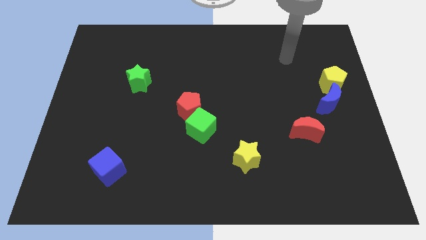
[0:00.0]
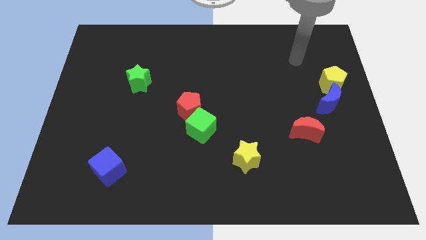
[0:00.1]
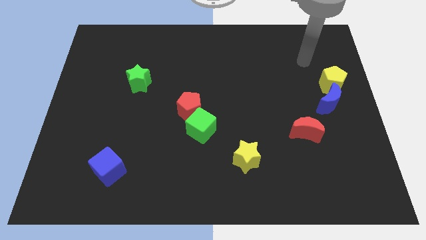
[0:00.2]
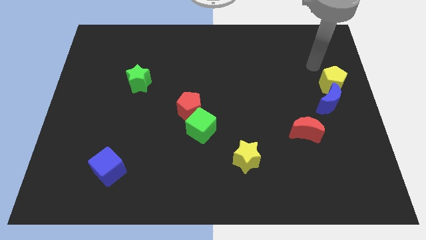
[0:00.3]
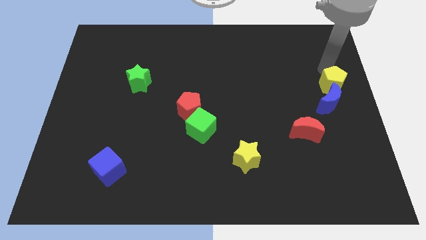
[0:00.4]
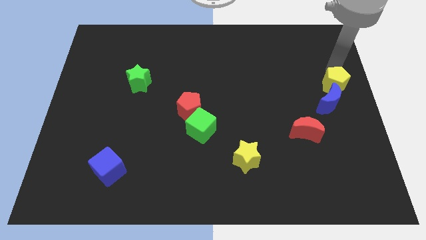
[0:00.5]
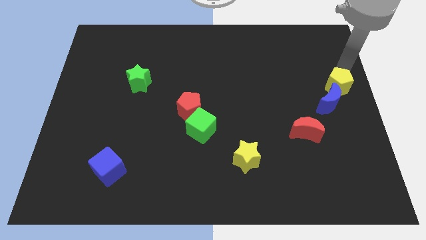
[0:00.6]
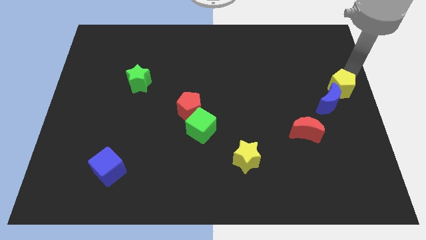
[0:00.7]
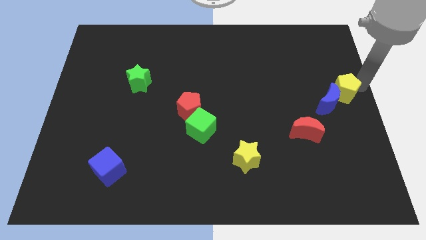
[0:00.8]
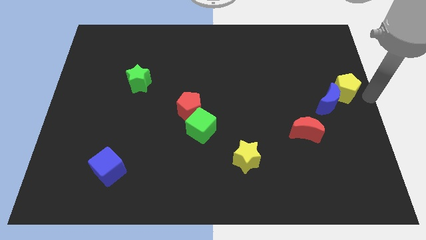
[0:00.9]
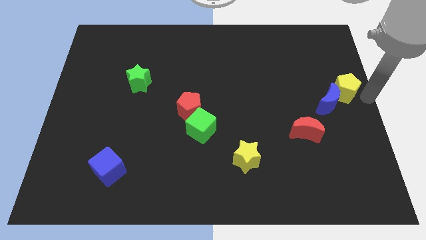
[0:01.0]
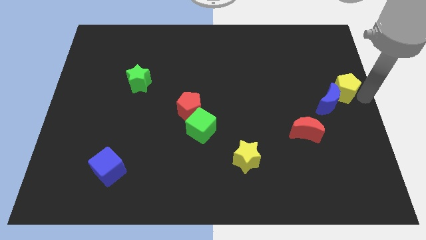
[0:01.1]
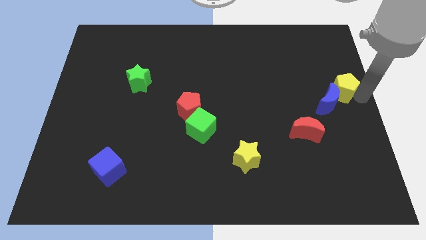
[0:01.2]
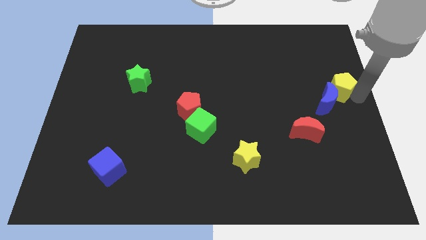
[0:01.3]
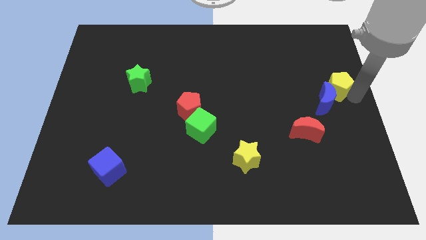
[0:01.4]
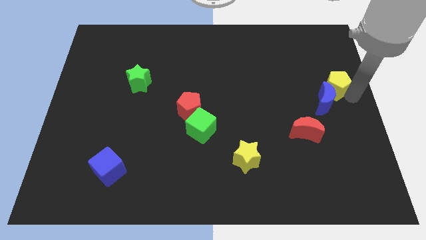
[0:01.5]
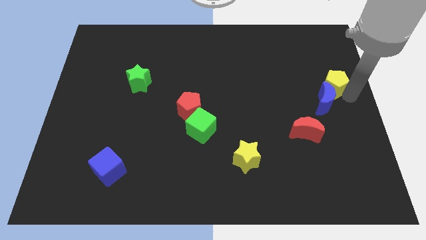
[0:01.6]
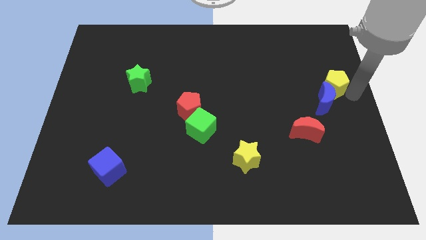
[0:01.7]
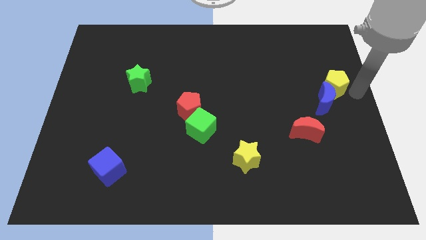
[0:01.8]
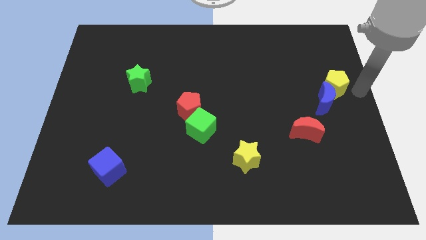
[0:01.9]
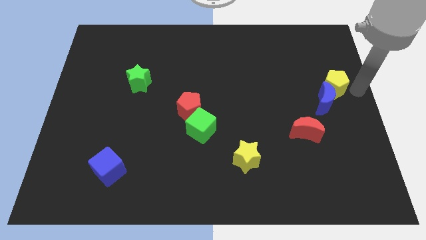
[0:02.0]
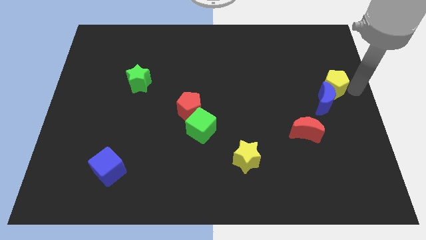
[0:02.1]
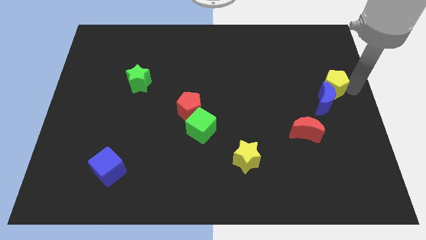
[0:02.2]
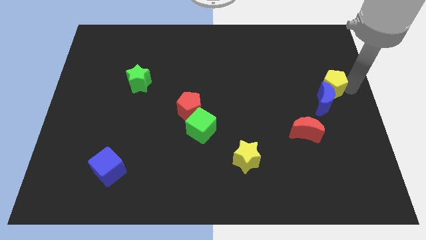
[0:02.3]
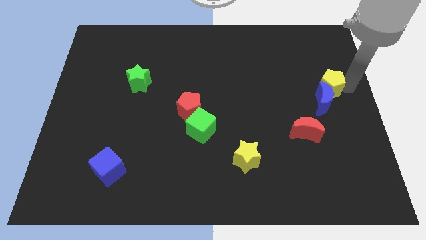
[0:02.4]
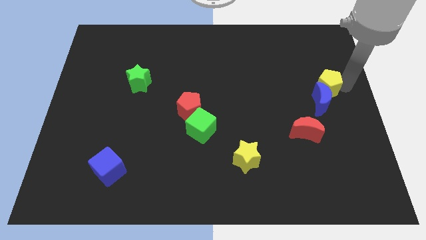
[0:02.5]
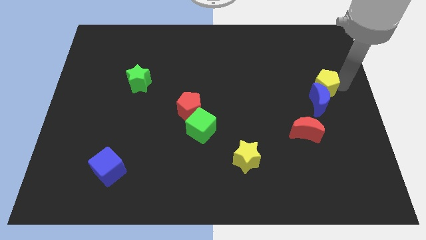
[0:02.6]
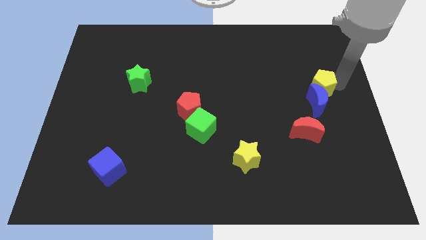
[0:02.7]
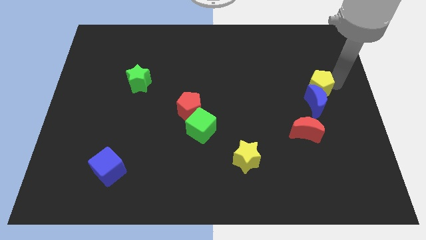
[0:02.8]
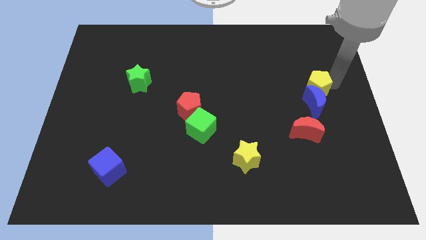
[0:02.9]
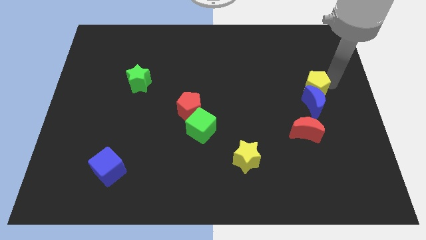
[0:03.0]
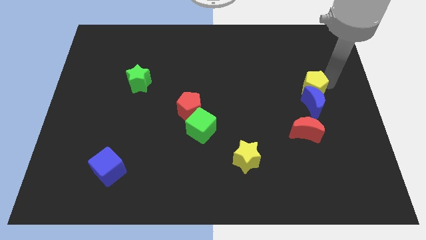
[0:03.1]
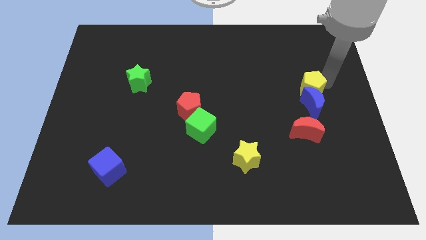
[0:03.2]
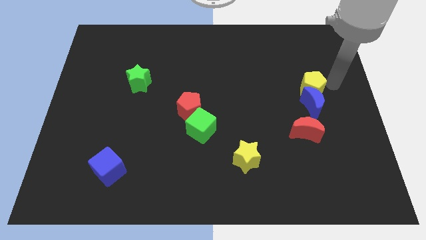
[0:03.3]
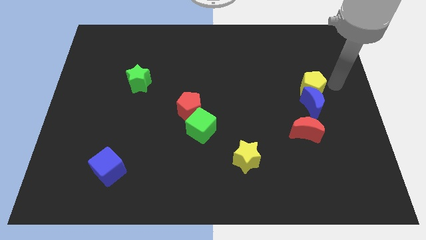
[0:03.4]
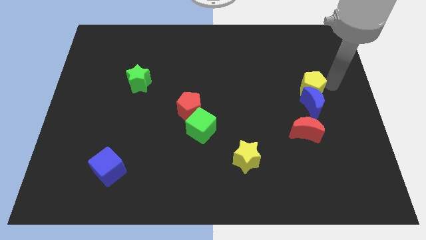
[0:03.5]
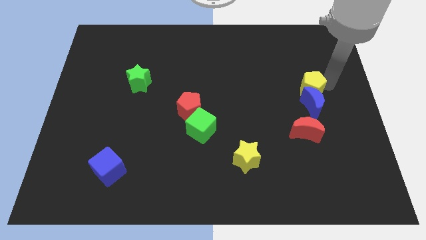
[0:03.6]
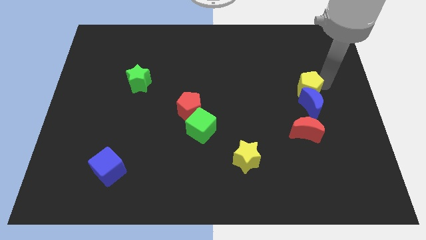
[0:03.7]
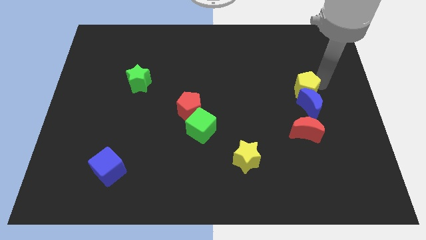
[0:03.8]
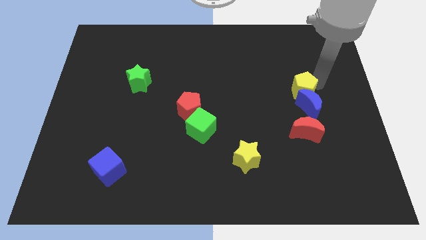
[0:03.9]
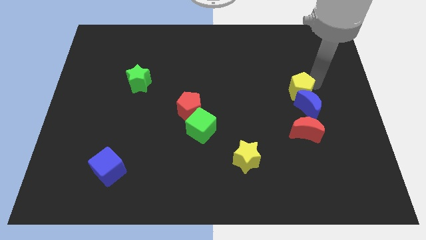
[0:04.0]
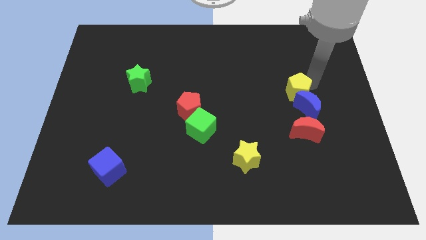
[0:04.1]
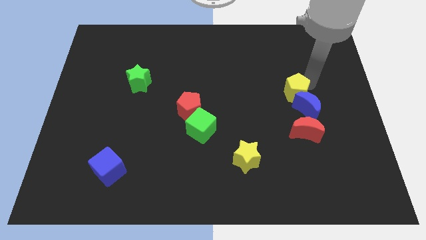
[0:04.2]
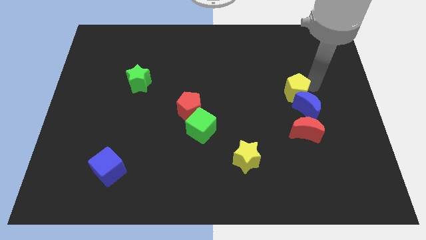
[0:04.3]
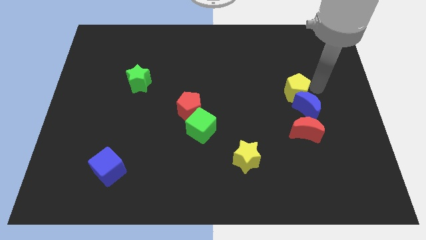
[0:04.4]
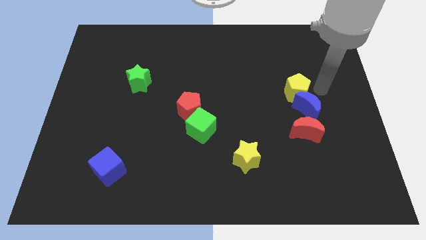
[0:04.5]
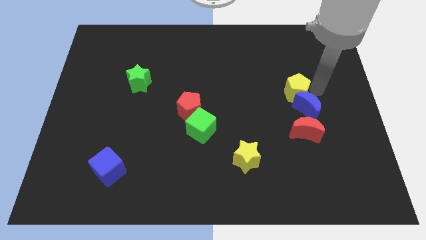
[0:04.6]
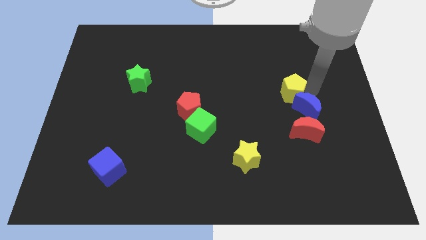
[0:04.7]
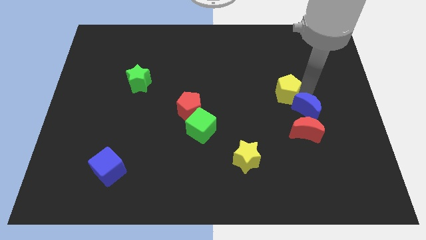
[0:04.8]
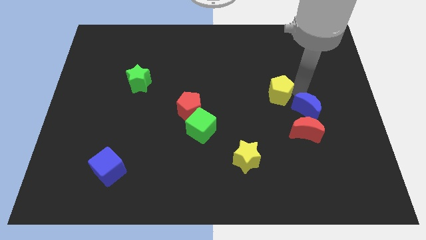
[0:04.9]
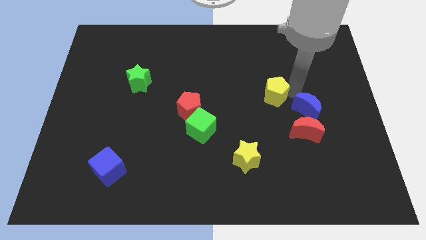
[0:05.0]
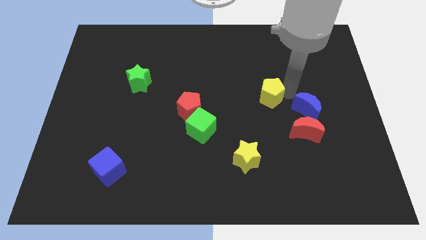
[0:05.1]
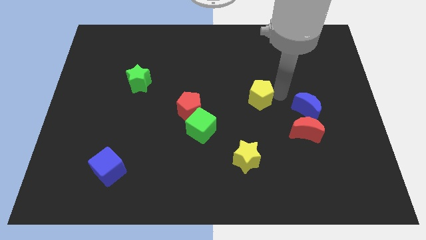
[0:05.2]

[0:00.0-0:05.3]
push the yellow pentagon to the center of the board
